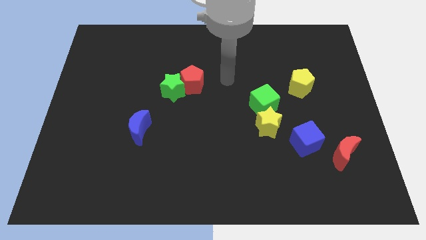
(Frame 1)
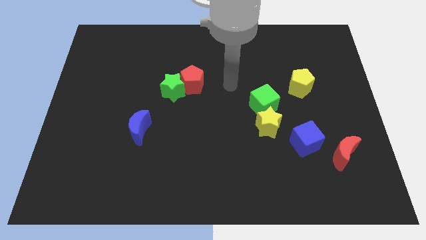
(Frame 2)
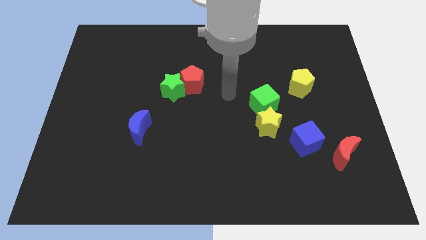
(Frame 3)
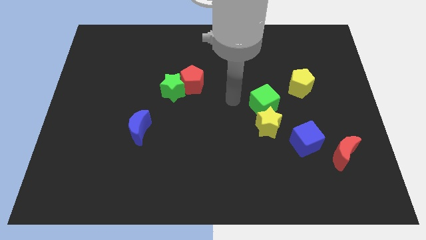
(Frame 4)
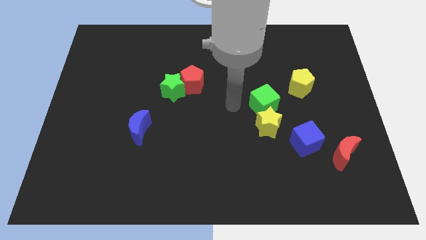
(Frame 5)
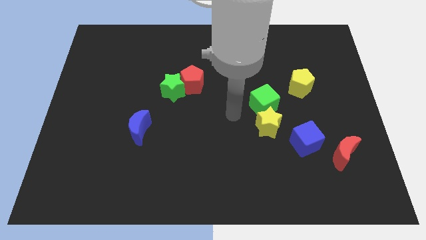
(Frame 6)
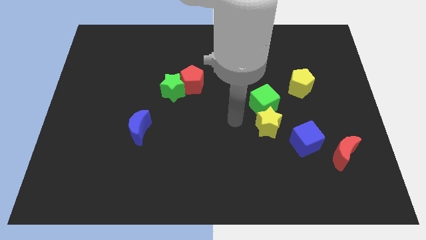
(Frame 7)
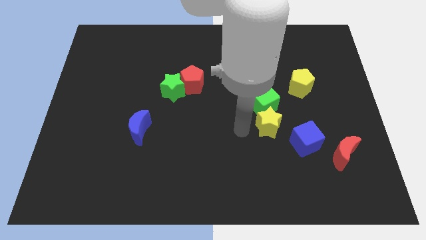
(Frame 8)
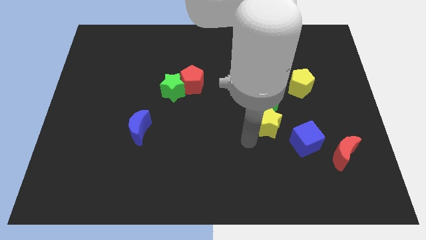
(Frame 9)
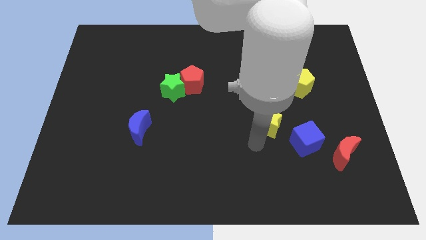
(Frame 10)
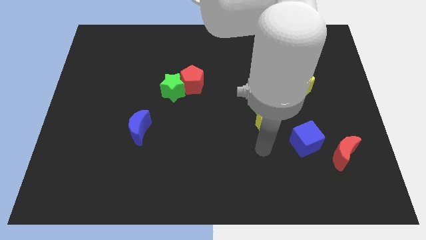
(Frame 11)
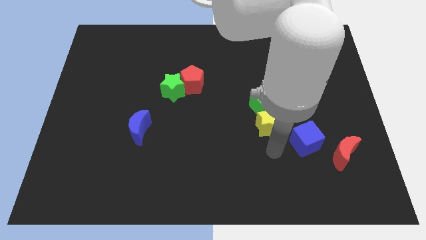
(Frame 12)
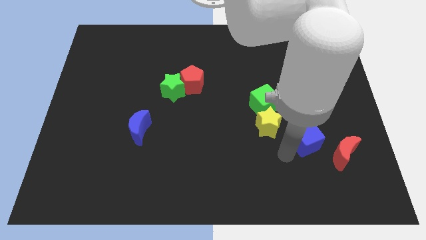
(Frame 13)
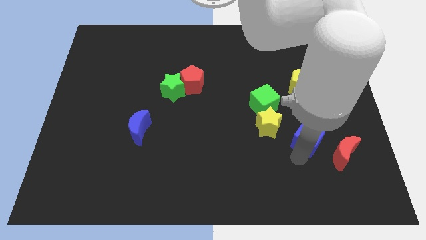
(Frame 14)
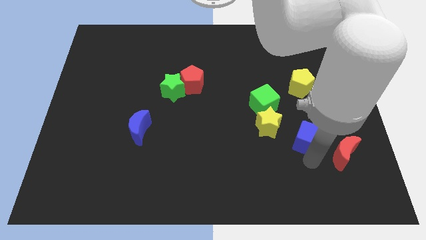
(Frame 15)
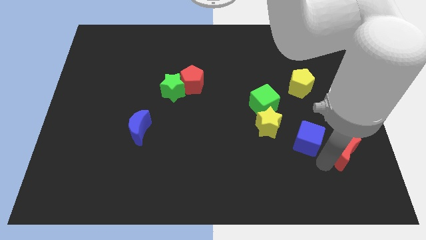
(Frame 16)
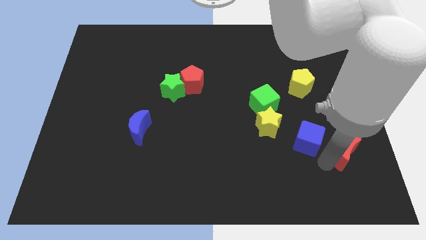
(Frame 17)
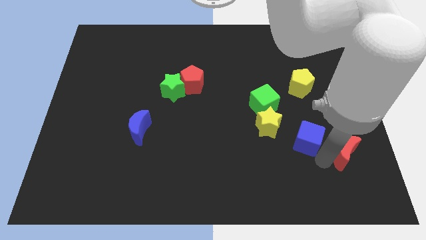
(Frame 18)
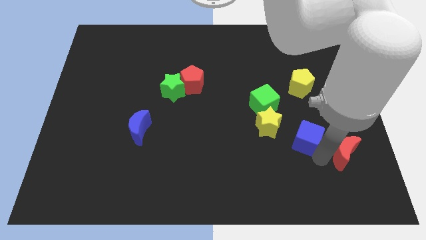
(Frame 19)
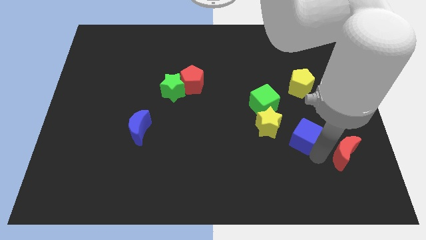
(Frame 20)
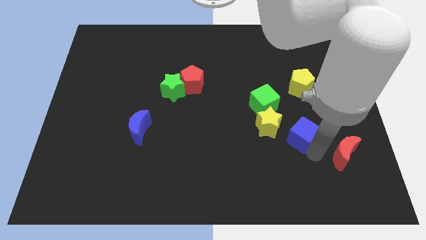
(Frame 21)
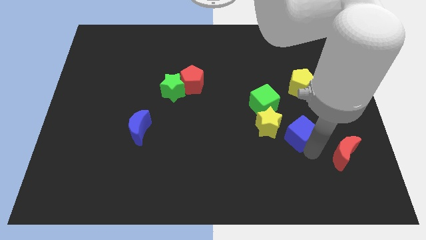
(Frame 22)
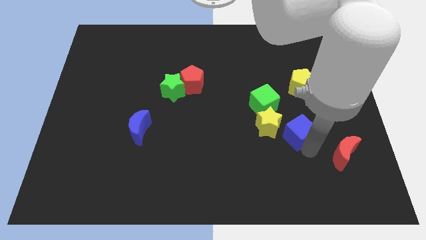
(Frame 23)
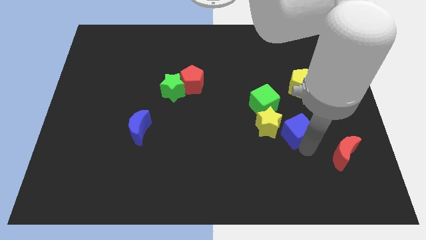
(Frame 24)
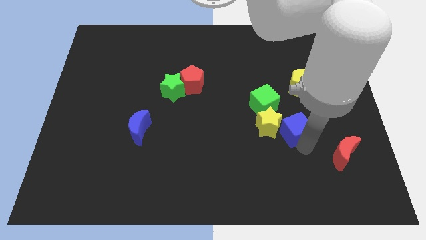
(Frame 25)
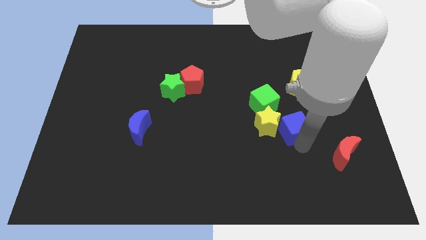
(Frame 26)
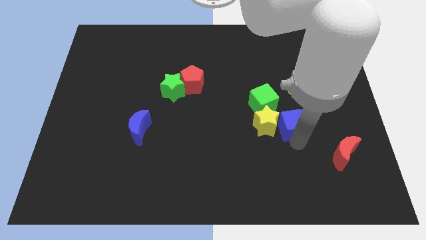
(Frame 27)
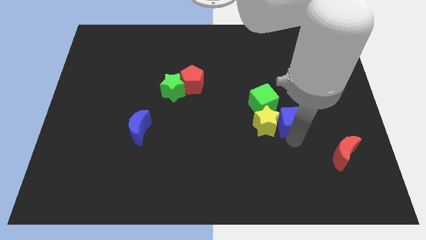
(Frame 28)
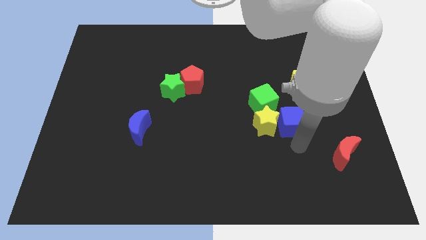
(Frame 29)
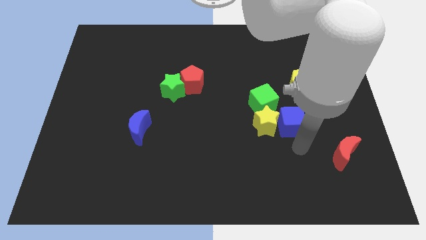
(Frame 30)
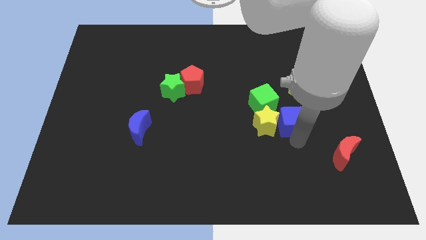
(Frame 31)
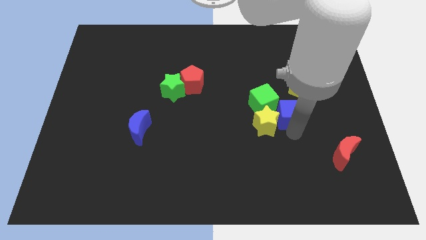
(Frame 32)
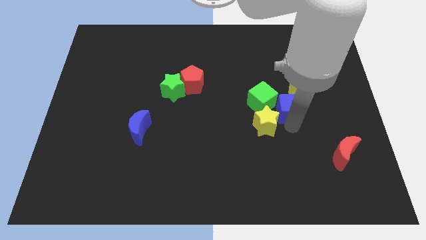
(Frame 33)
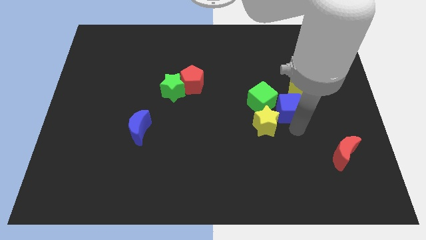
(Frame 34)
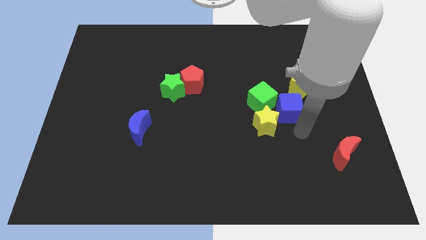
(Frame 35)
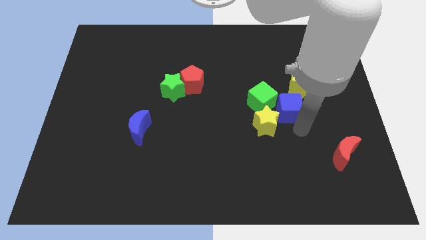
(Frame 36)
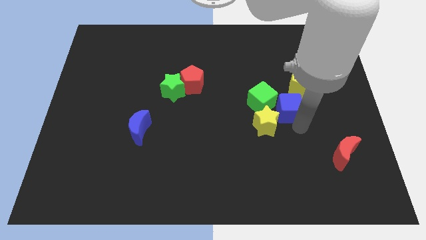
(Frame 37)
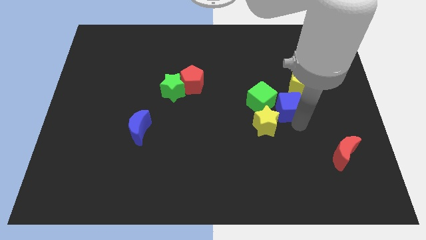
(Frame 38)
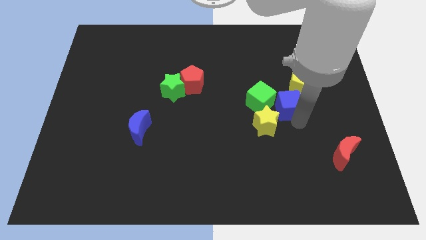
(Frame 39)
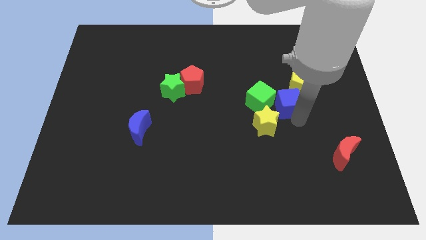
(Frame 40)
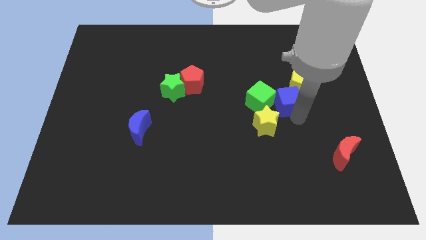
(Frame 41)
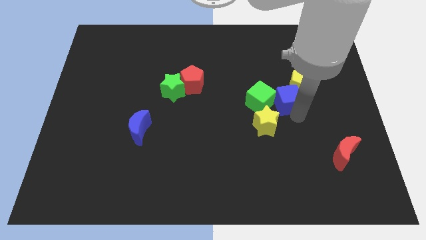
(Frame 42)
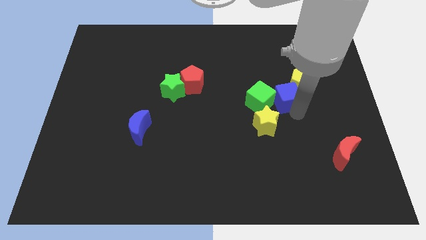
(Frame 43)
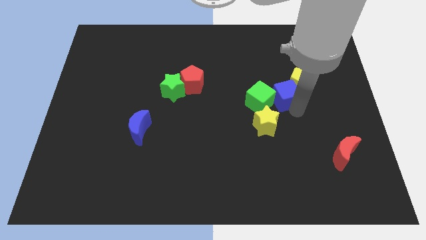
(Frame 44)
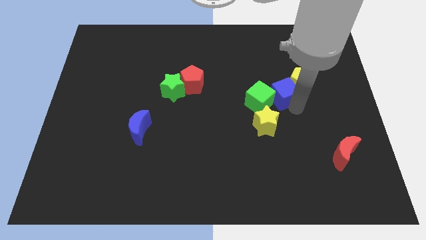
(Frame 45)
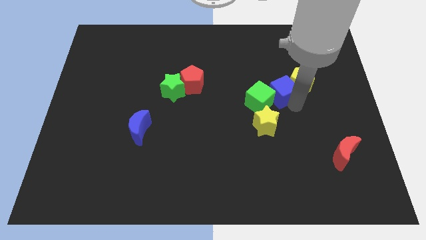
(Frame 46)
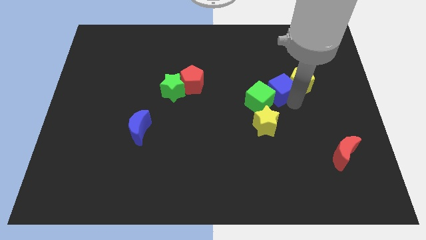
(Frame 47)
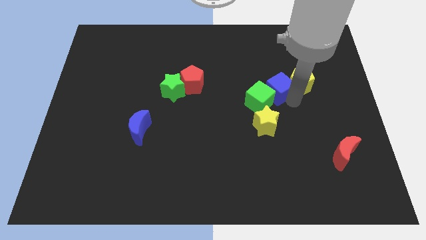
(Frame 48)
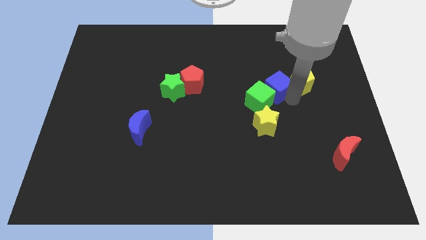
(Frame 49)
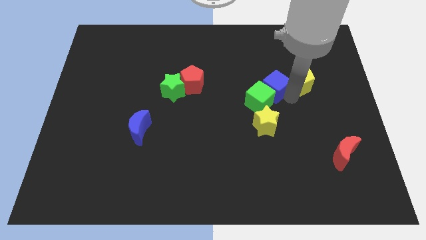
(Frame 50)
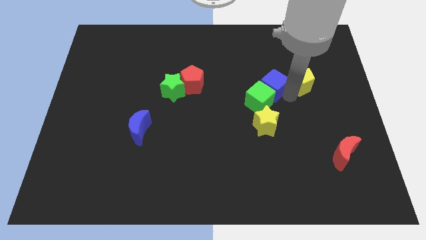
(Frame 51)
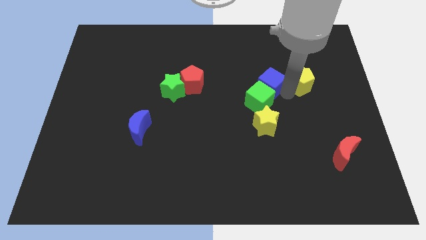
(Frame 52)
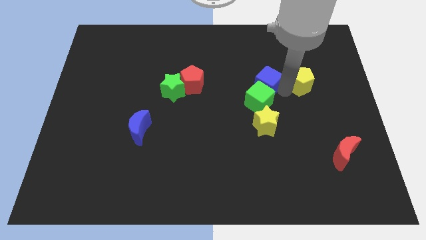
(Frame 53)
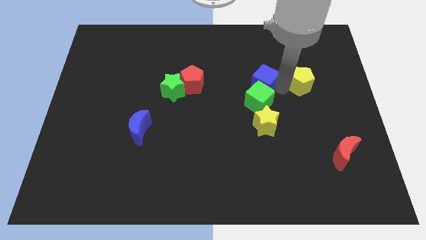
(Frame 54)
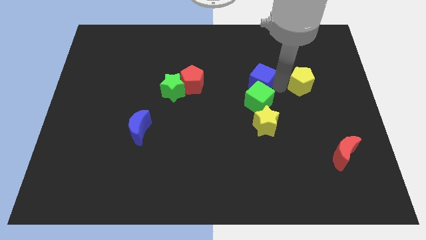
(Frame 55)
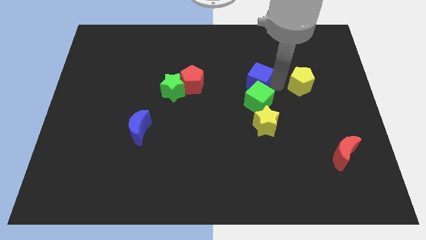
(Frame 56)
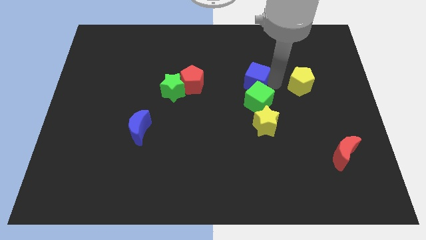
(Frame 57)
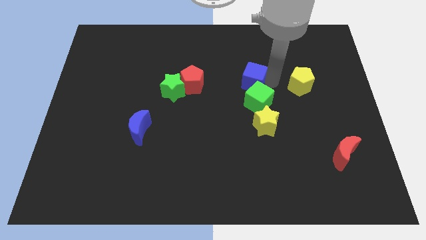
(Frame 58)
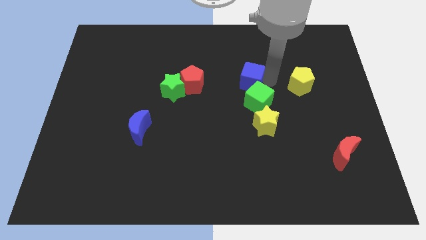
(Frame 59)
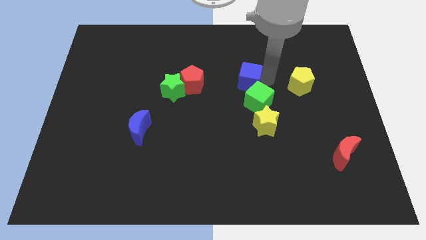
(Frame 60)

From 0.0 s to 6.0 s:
slide the blue cube upwards and to the left diagonally

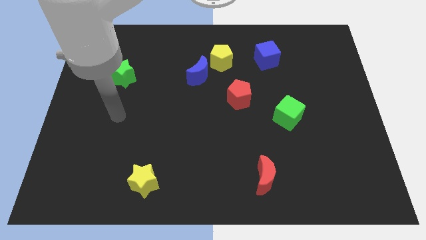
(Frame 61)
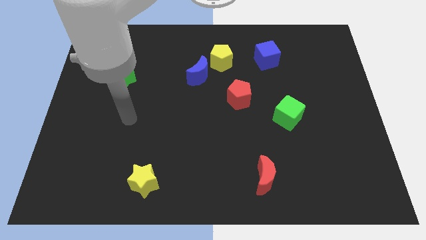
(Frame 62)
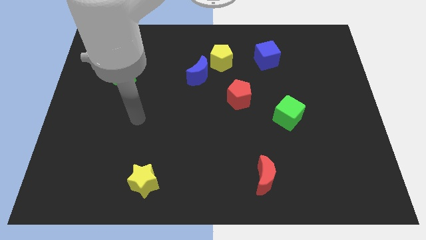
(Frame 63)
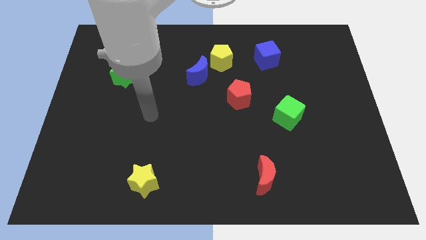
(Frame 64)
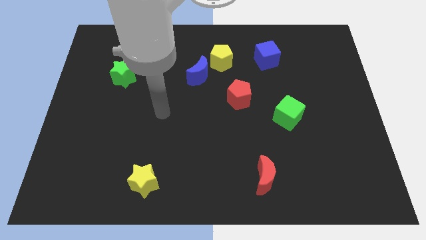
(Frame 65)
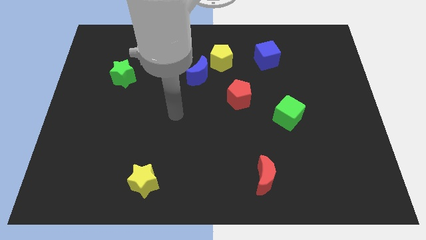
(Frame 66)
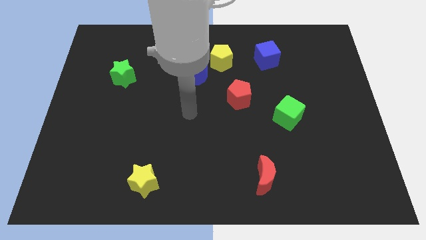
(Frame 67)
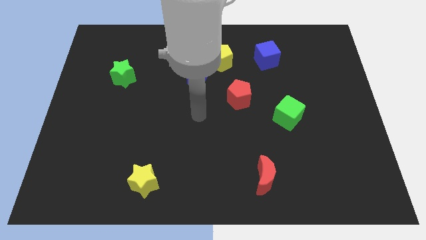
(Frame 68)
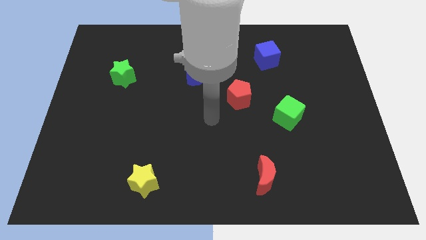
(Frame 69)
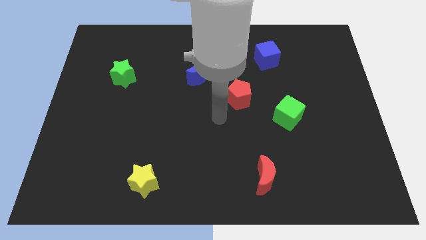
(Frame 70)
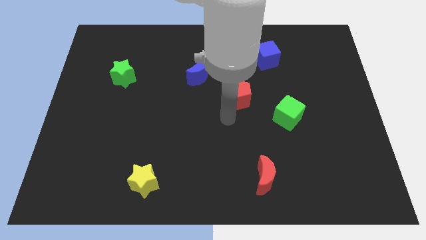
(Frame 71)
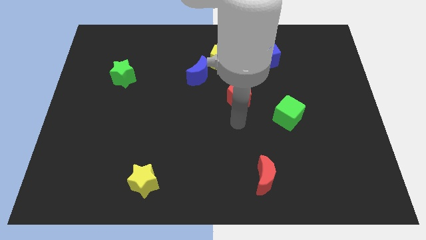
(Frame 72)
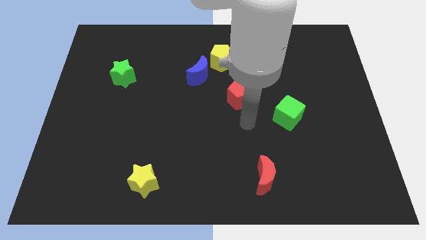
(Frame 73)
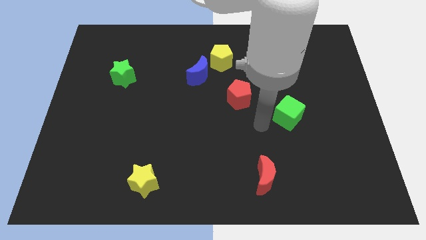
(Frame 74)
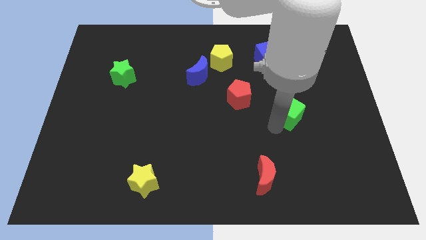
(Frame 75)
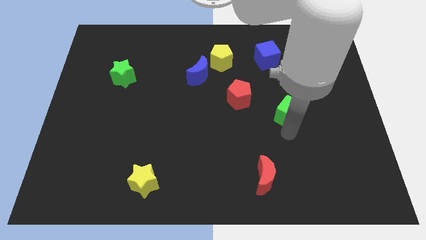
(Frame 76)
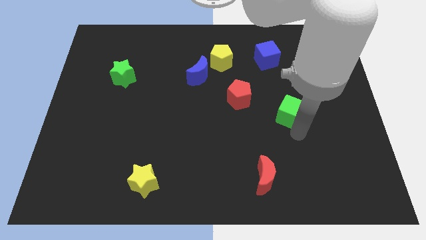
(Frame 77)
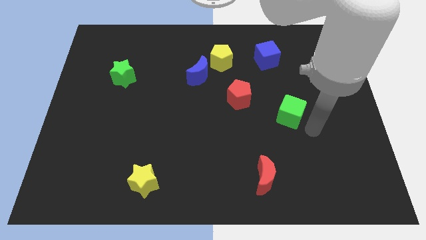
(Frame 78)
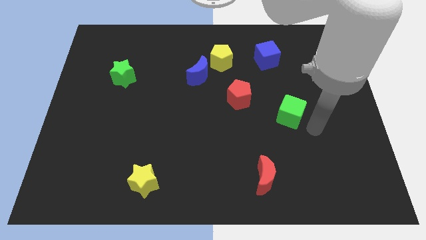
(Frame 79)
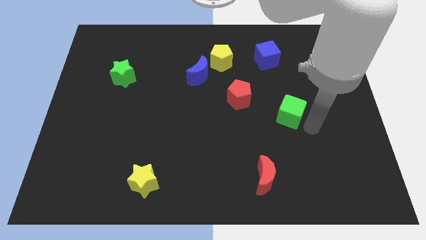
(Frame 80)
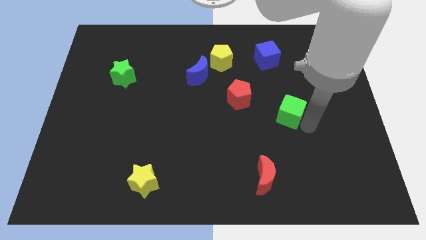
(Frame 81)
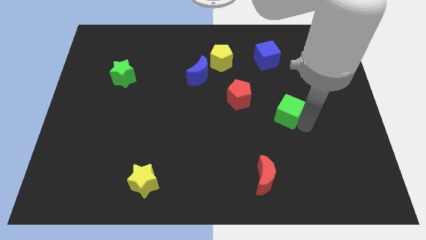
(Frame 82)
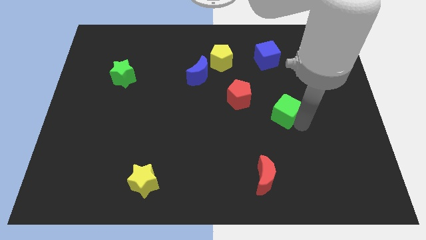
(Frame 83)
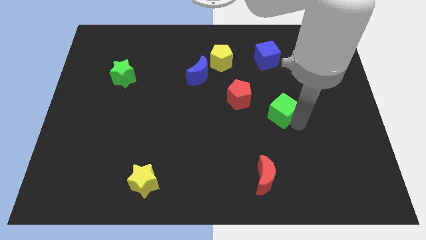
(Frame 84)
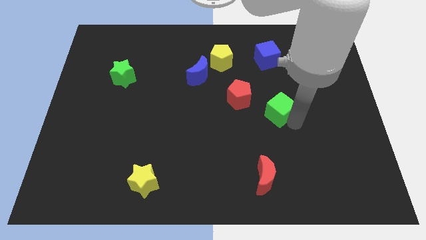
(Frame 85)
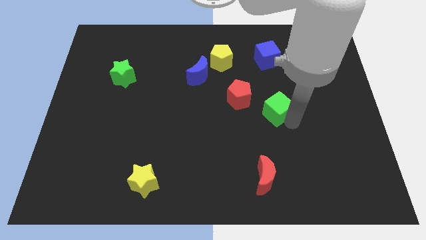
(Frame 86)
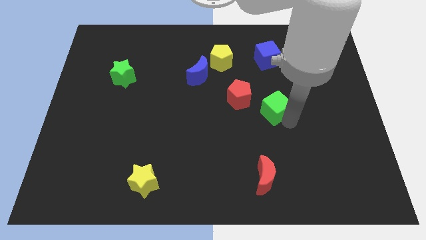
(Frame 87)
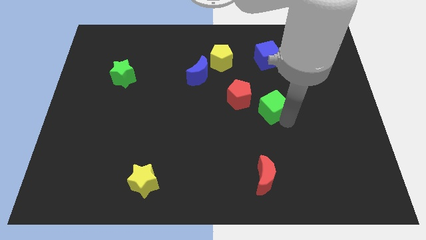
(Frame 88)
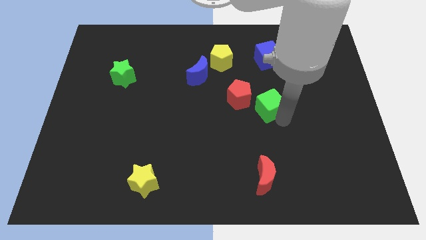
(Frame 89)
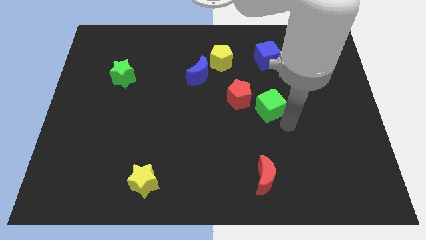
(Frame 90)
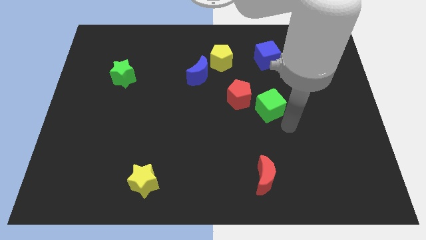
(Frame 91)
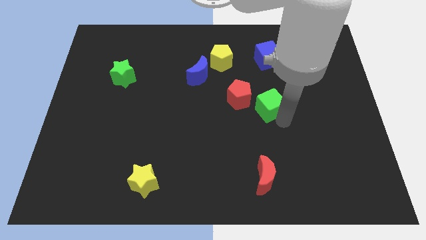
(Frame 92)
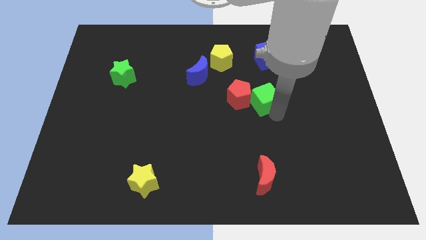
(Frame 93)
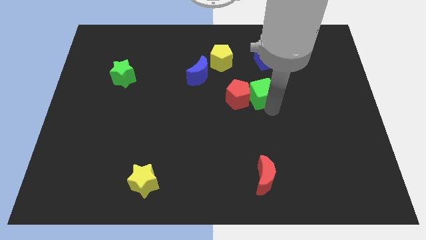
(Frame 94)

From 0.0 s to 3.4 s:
move the green cube up and then to the left a little
